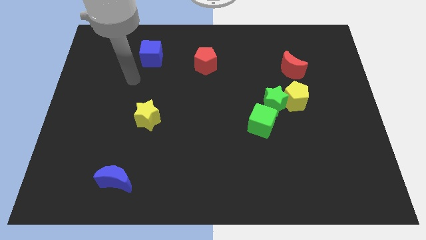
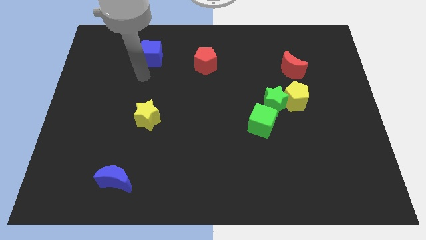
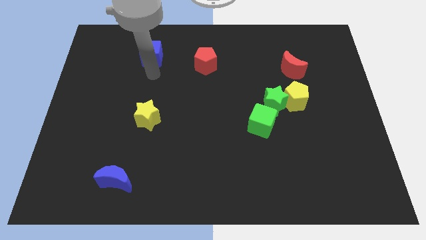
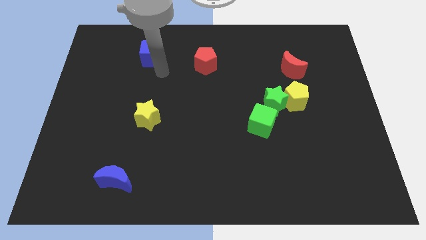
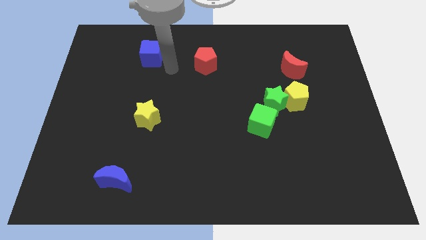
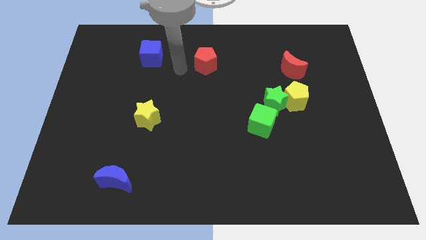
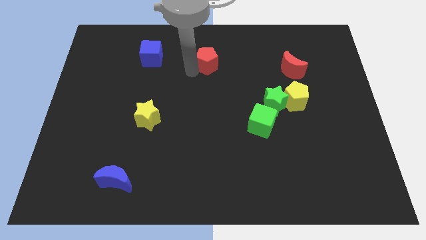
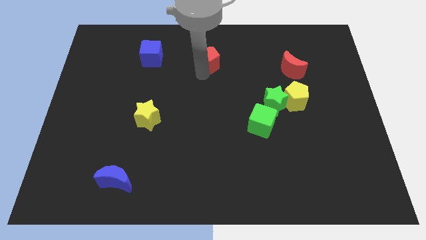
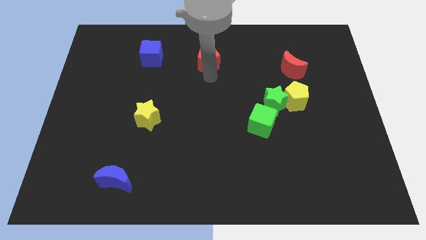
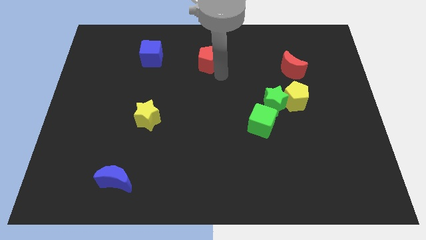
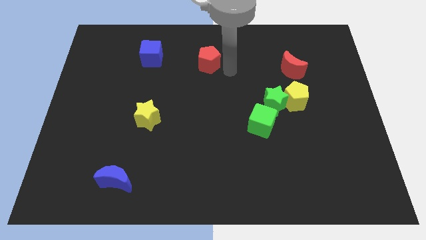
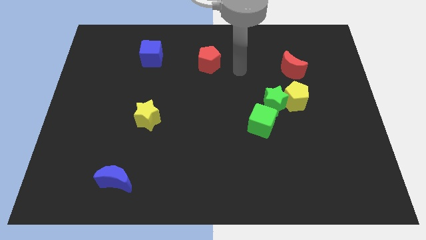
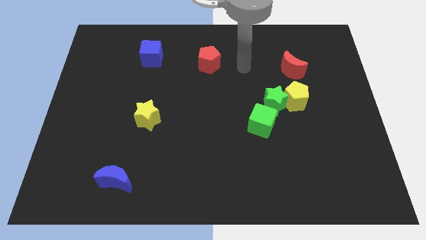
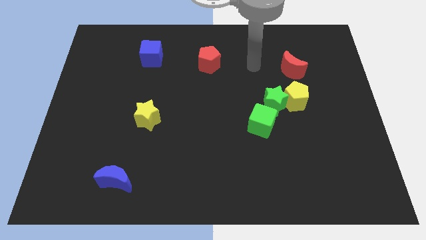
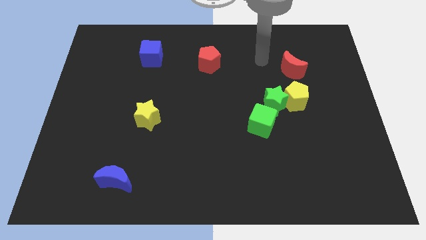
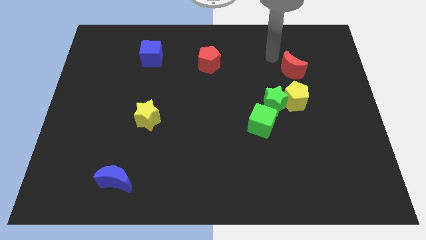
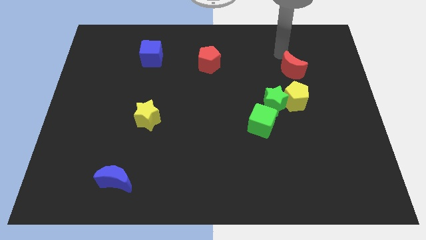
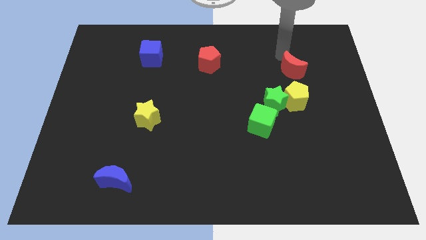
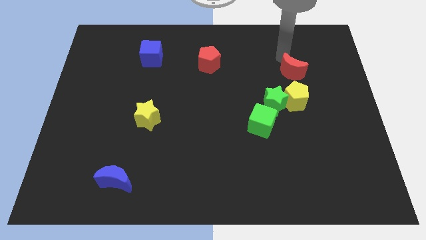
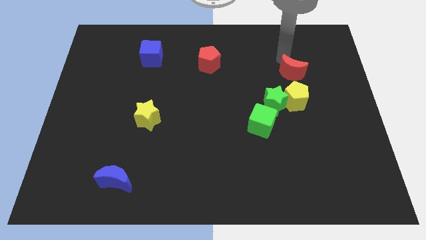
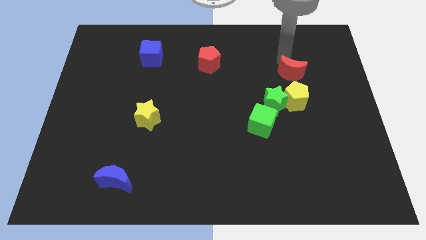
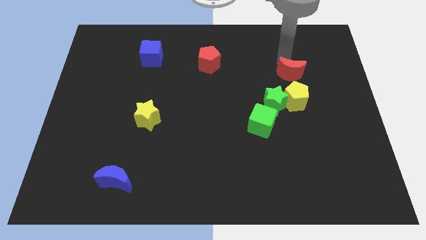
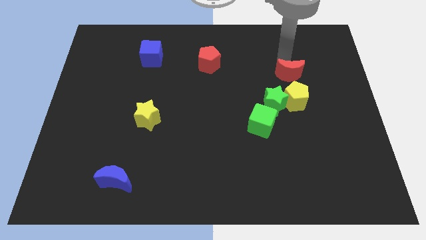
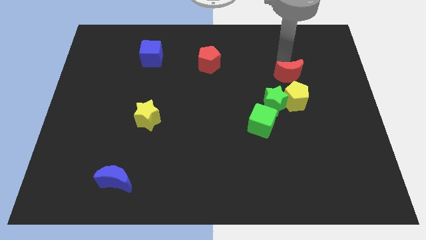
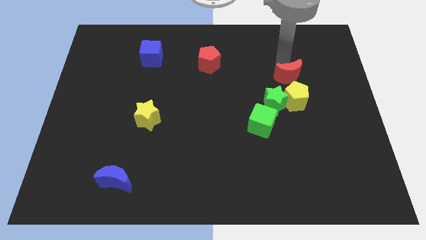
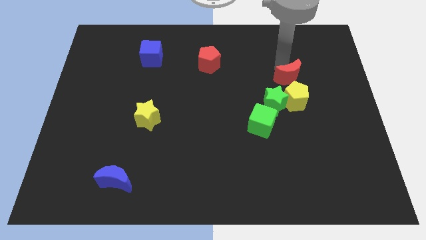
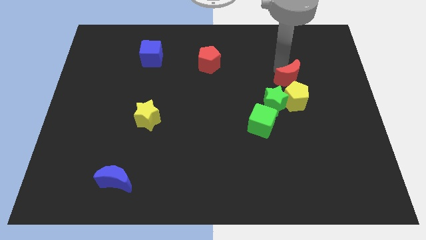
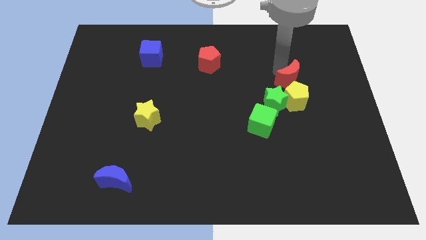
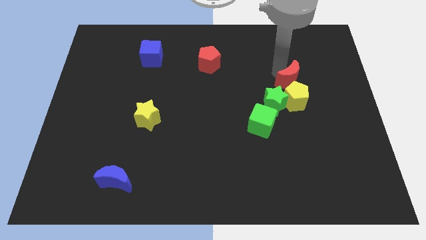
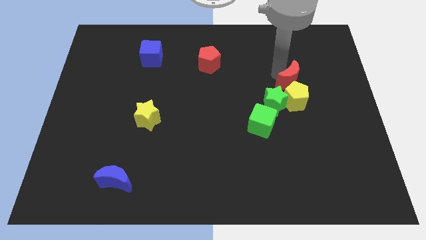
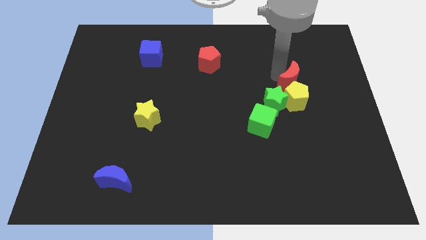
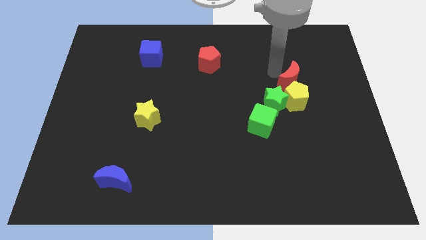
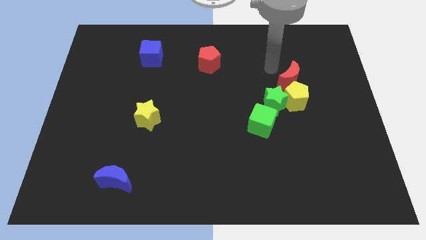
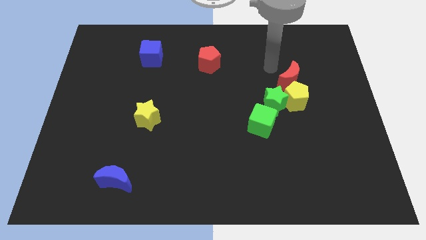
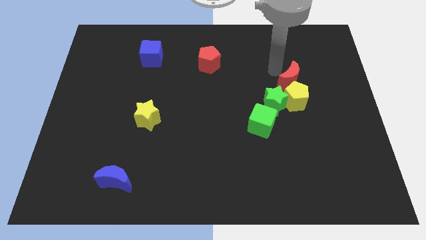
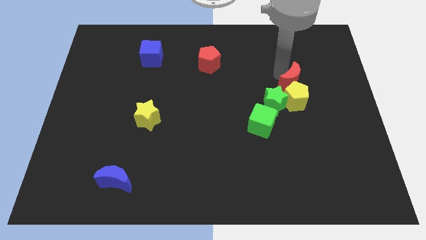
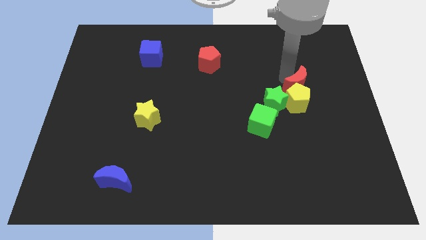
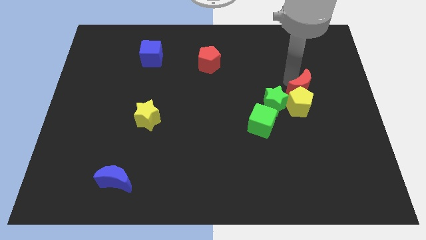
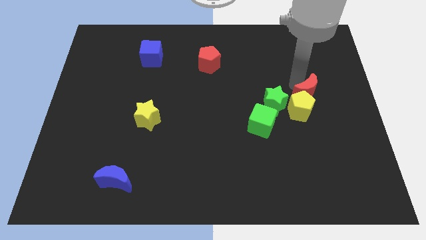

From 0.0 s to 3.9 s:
push the red moon somewhat downwards

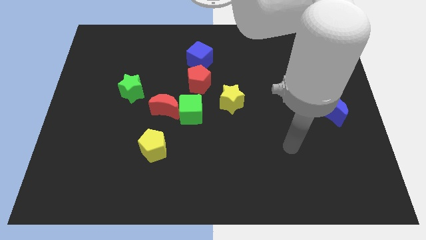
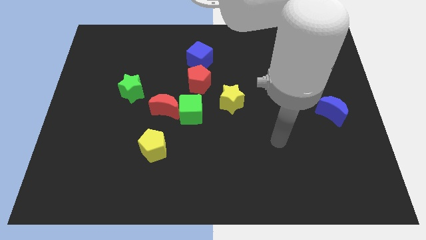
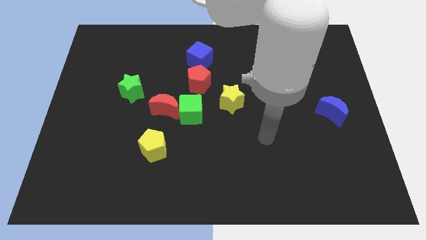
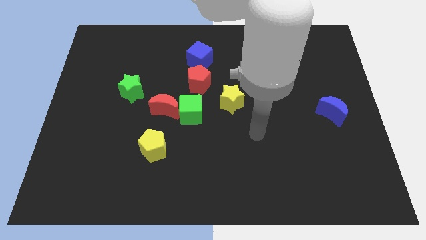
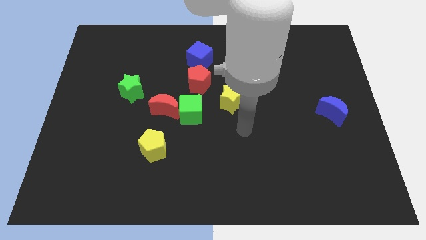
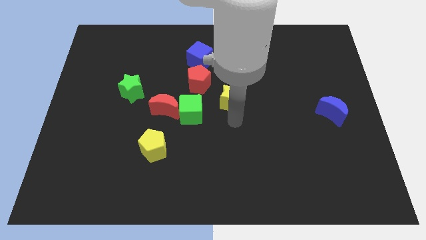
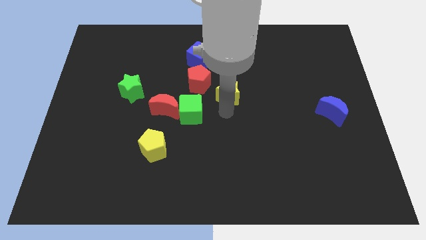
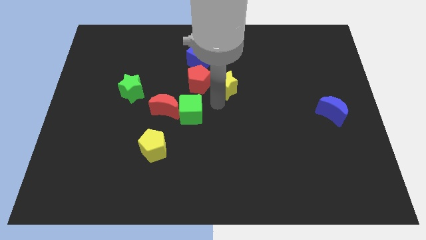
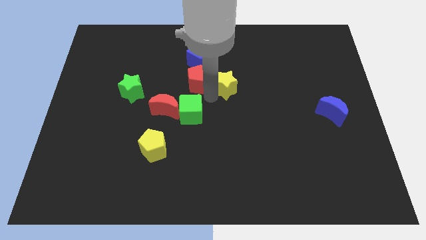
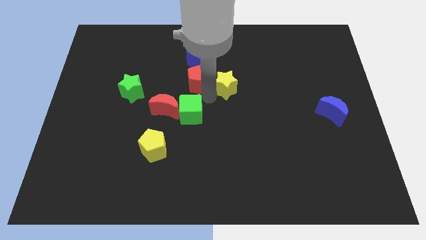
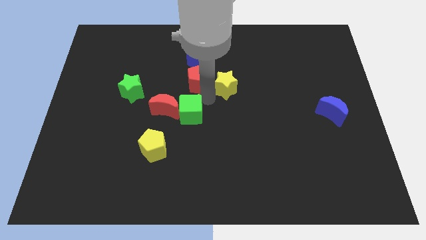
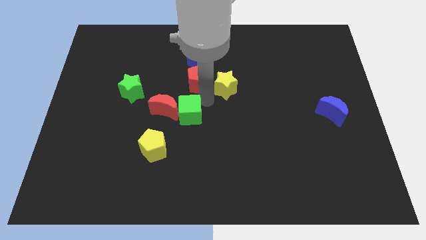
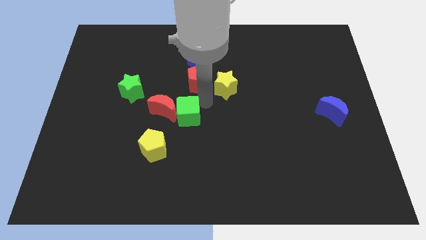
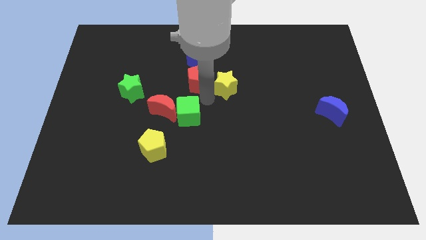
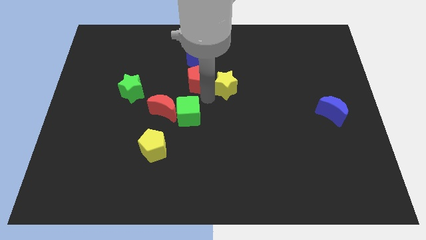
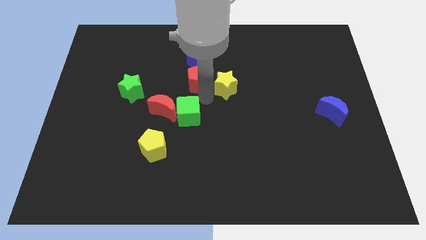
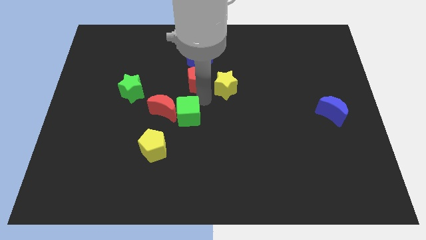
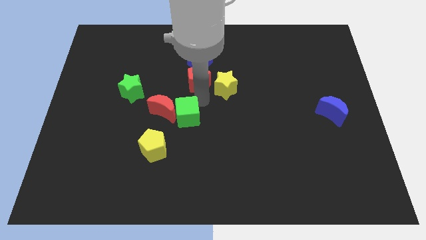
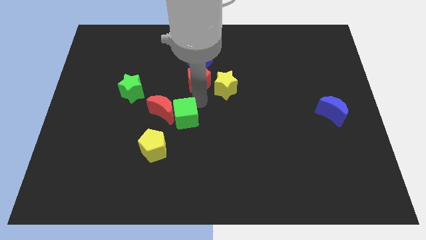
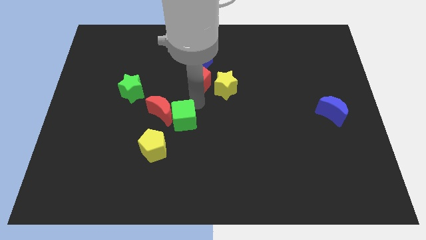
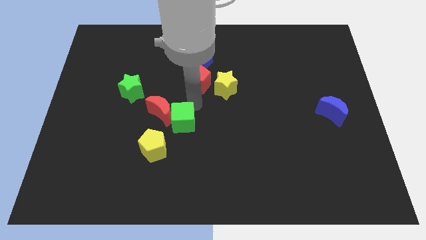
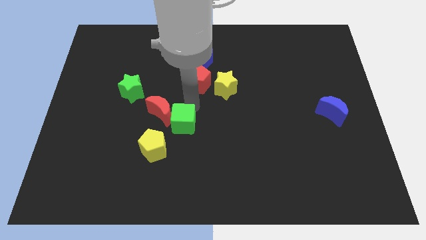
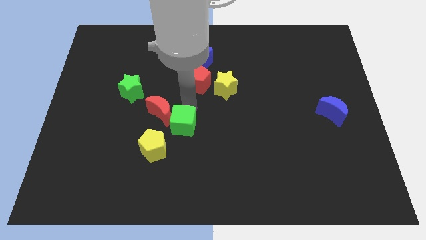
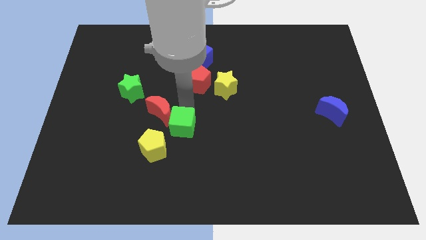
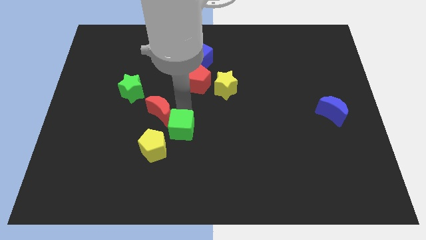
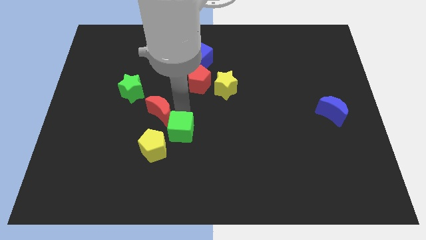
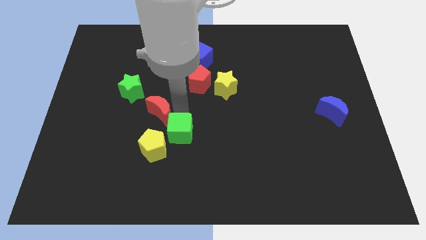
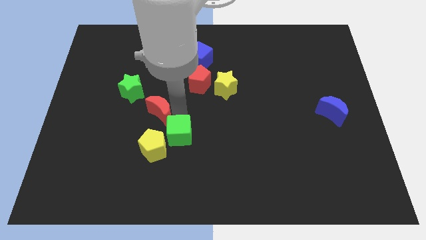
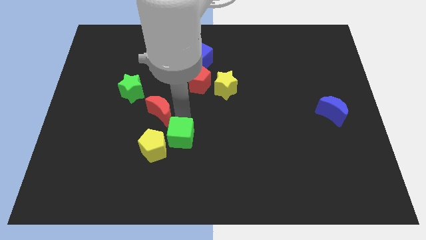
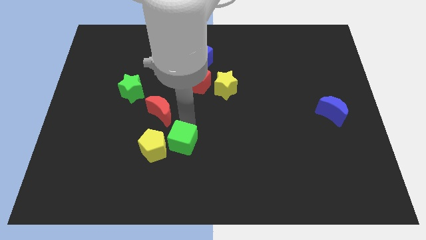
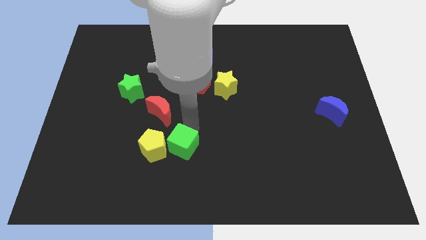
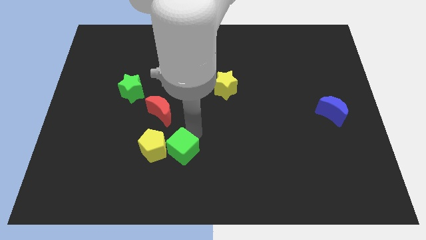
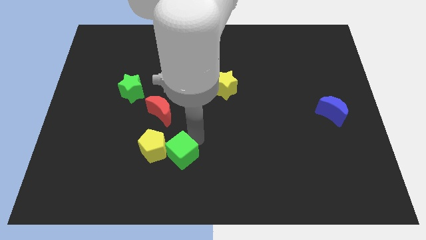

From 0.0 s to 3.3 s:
slightly slide the green cube down and left

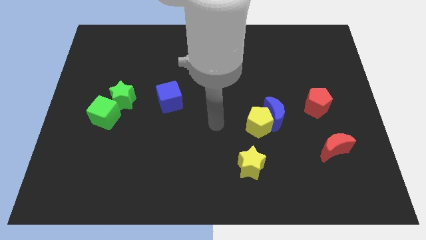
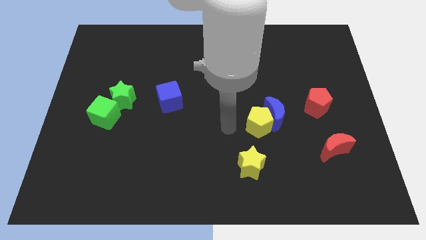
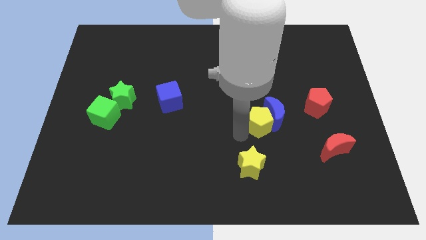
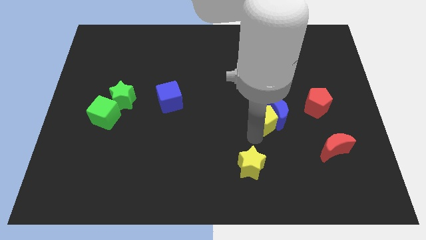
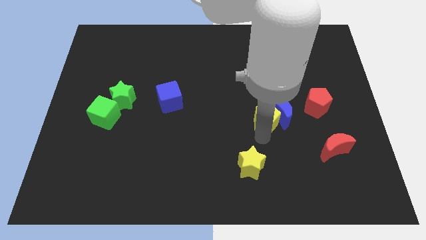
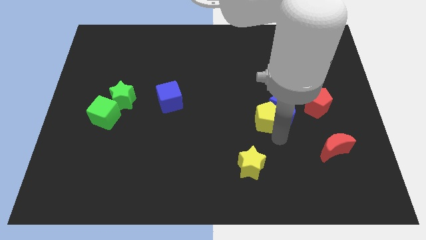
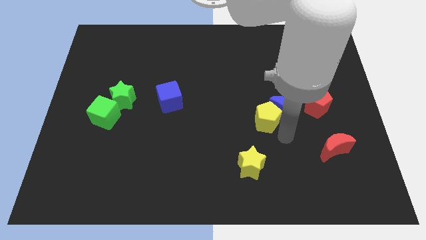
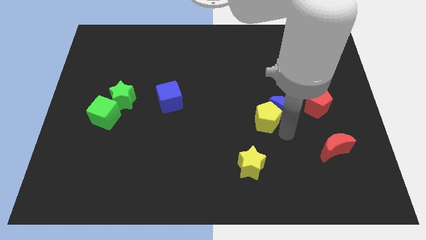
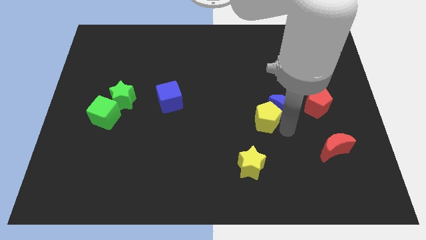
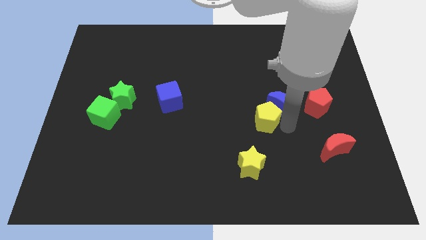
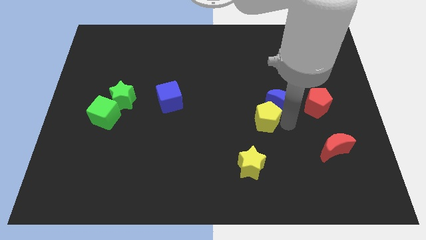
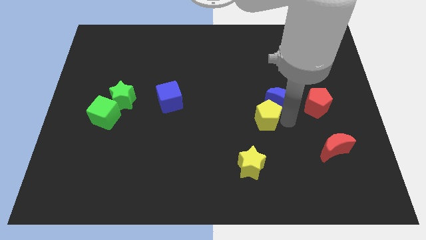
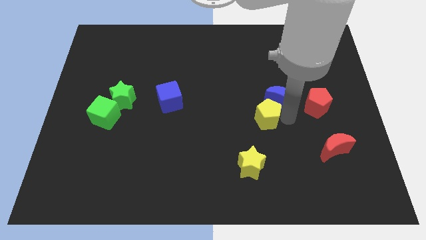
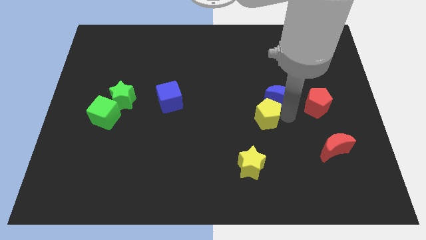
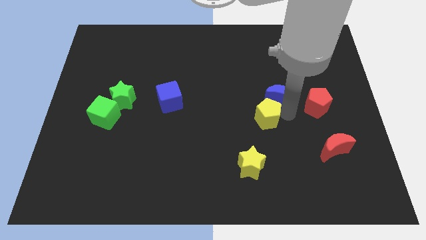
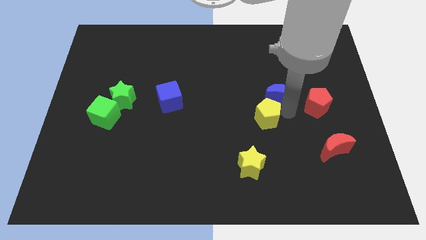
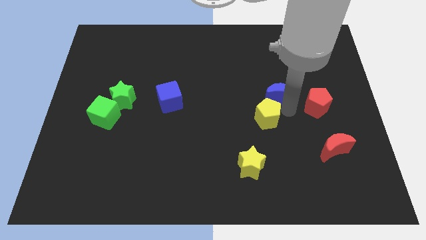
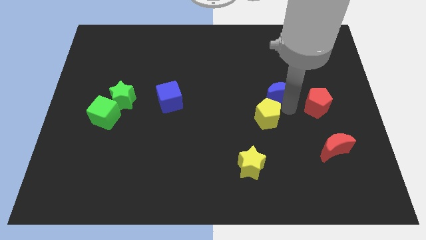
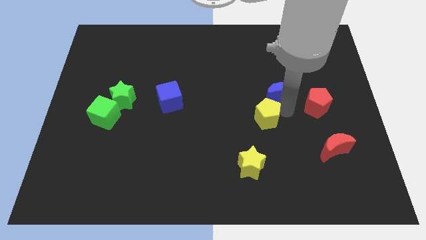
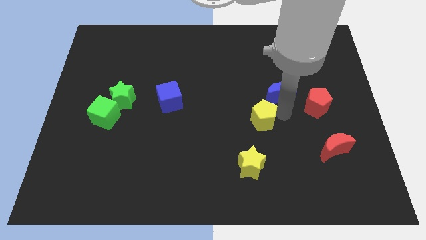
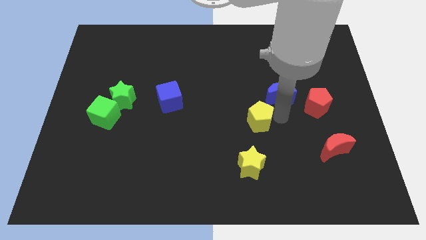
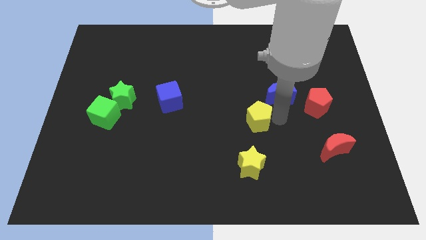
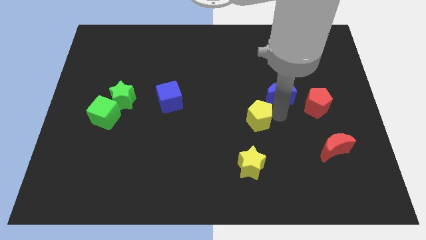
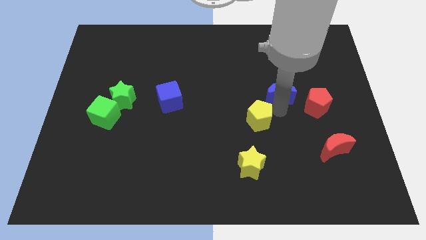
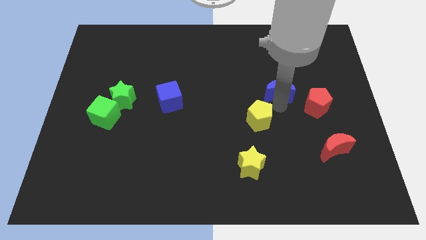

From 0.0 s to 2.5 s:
slide the blue moon up a little
